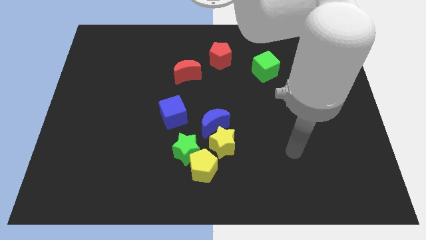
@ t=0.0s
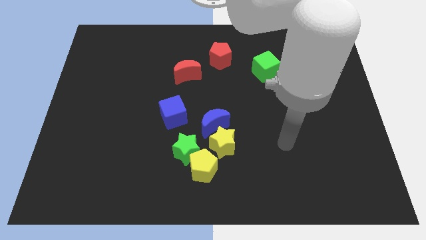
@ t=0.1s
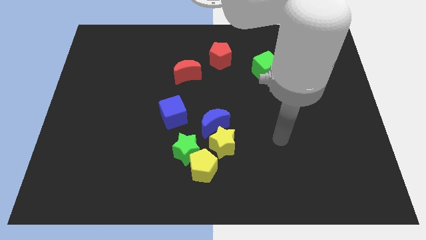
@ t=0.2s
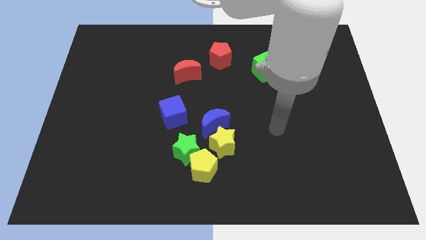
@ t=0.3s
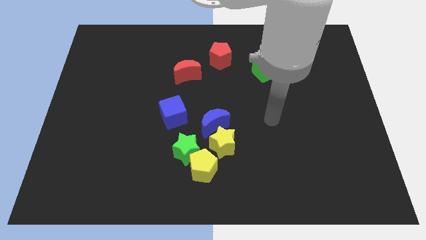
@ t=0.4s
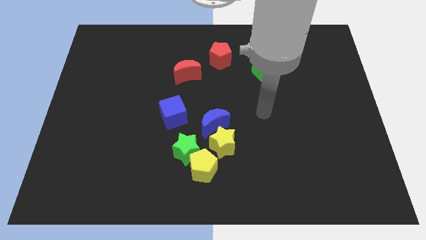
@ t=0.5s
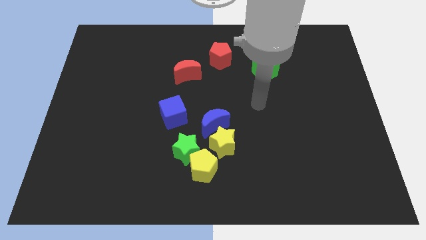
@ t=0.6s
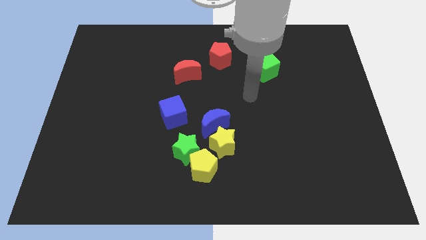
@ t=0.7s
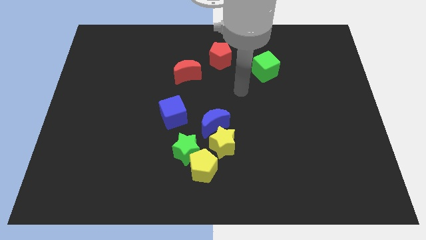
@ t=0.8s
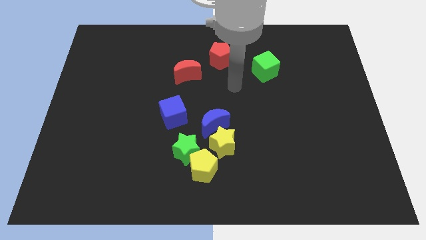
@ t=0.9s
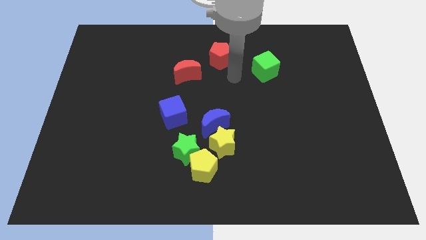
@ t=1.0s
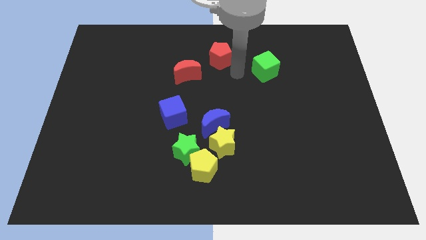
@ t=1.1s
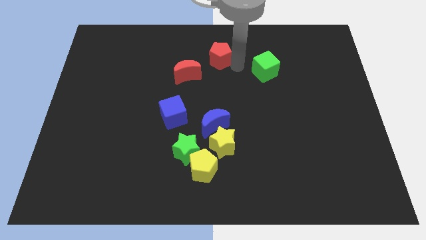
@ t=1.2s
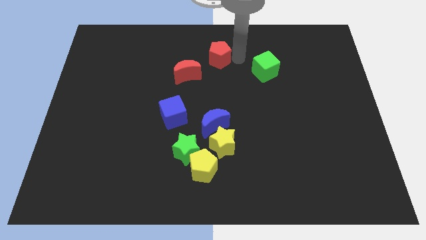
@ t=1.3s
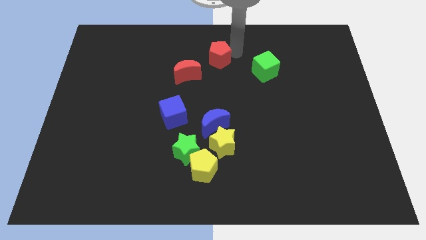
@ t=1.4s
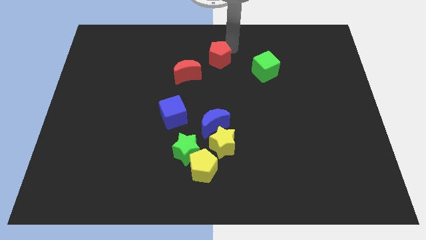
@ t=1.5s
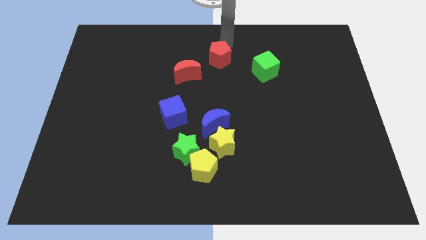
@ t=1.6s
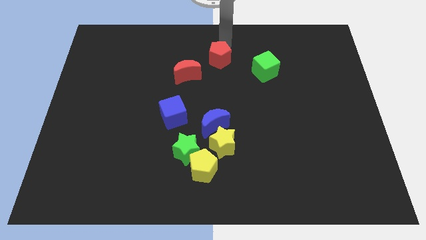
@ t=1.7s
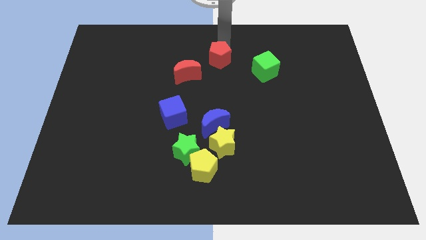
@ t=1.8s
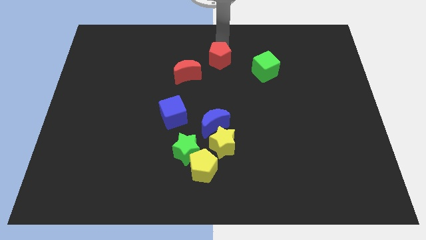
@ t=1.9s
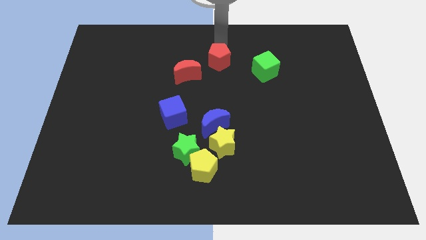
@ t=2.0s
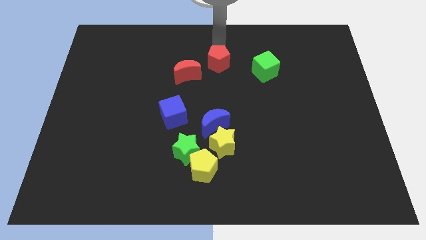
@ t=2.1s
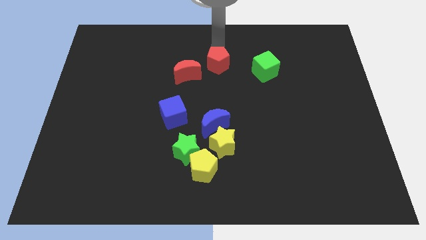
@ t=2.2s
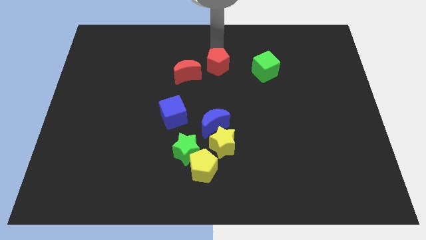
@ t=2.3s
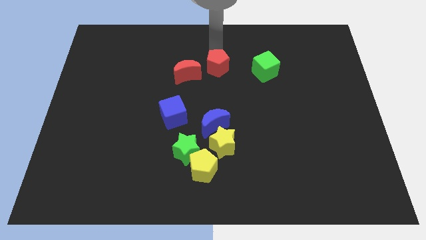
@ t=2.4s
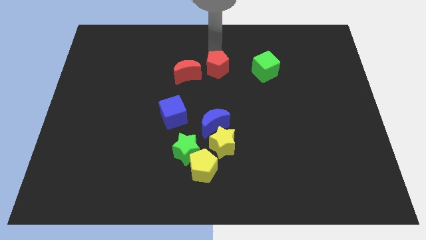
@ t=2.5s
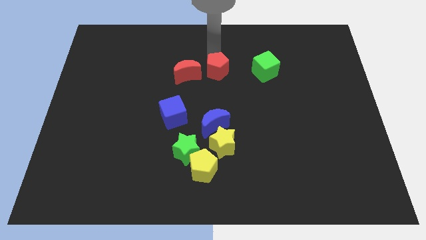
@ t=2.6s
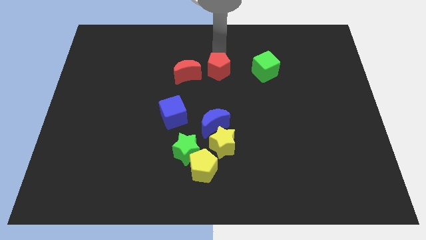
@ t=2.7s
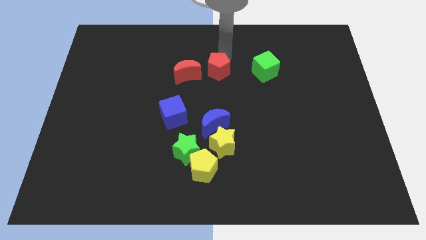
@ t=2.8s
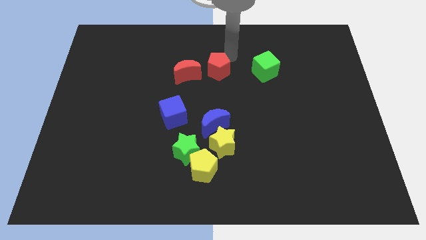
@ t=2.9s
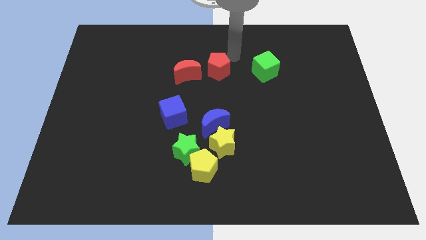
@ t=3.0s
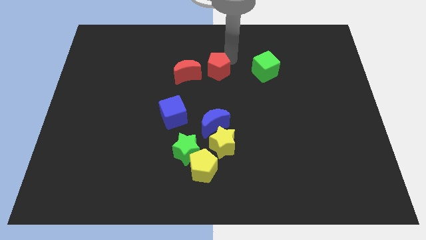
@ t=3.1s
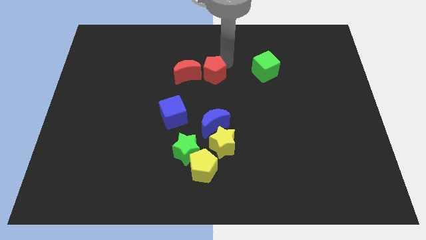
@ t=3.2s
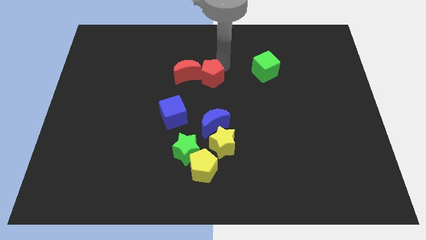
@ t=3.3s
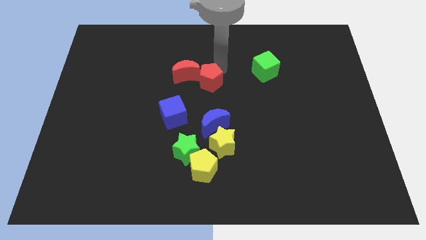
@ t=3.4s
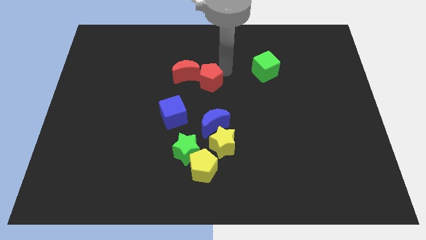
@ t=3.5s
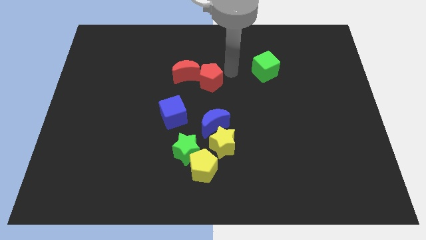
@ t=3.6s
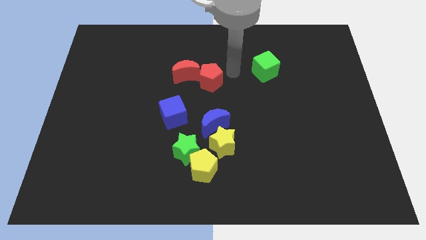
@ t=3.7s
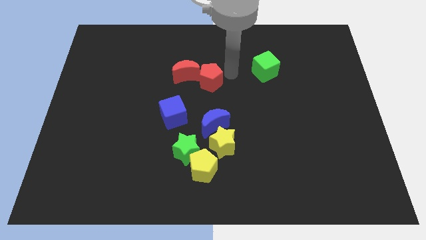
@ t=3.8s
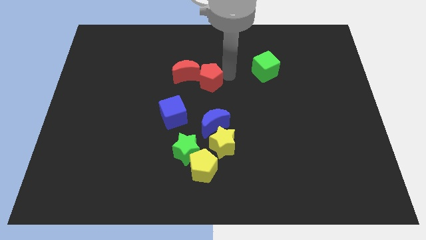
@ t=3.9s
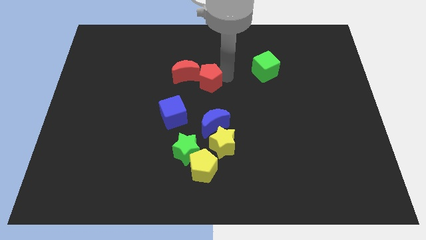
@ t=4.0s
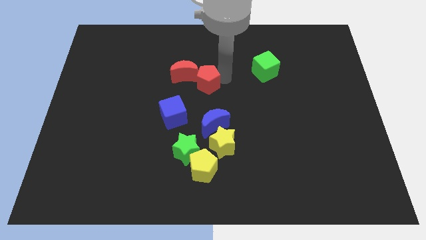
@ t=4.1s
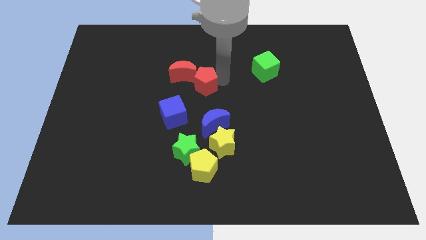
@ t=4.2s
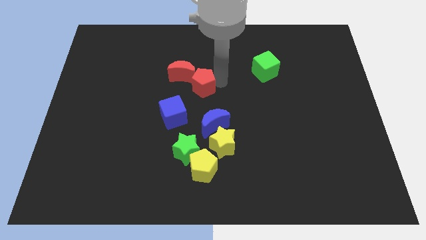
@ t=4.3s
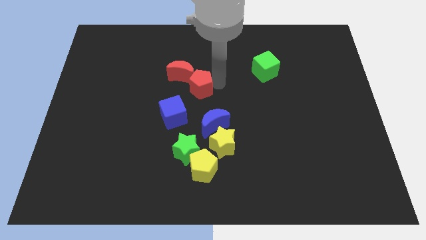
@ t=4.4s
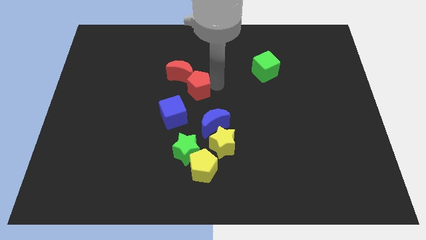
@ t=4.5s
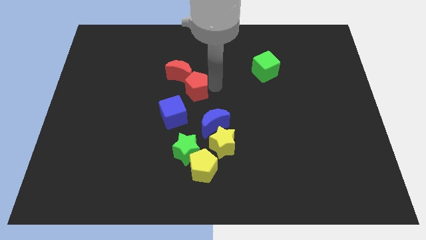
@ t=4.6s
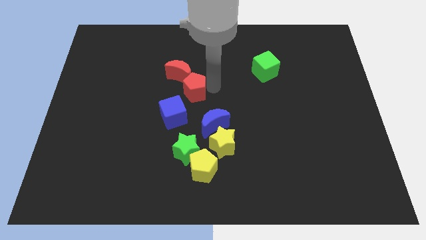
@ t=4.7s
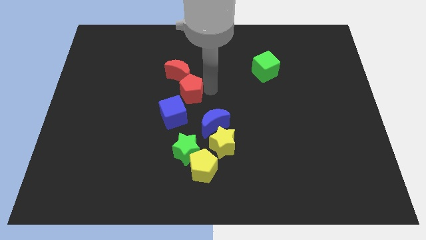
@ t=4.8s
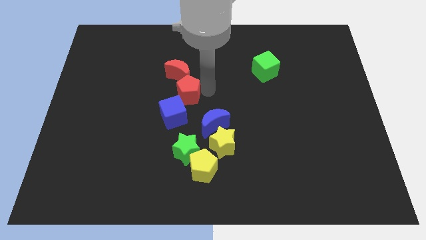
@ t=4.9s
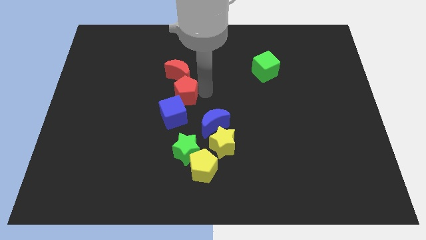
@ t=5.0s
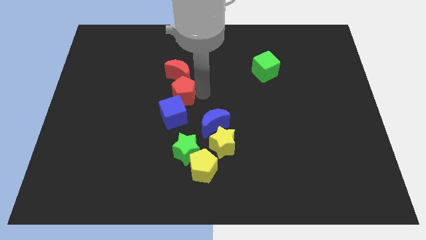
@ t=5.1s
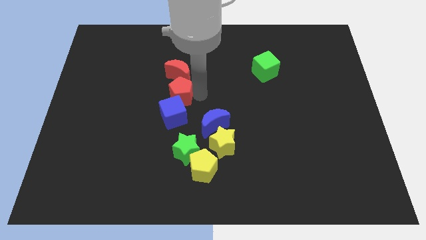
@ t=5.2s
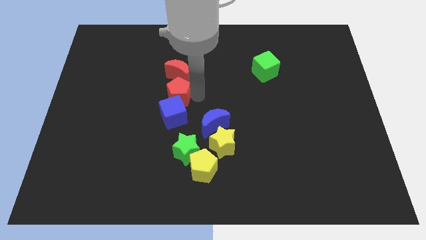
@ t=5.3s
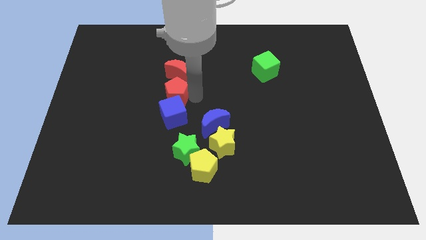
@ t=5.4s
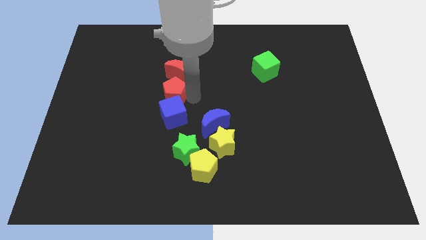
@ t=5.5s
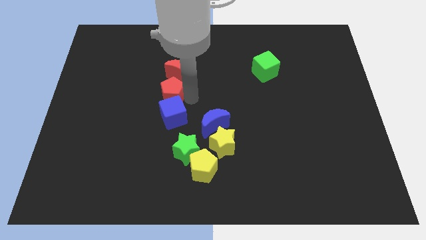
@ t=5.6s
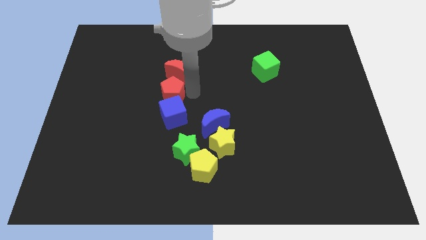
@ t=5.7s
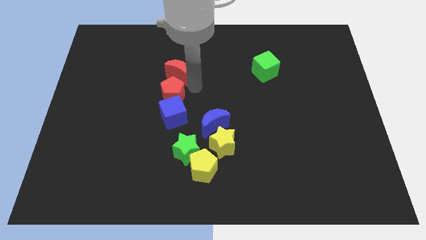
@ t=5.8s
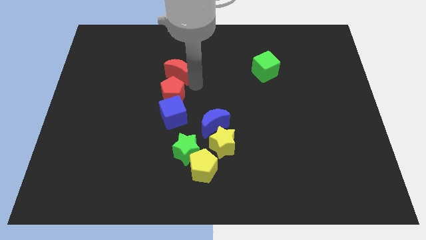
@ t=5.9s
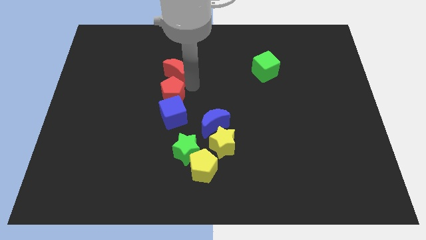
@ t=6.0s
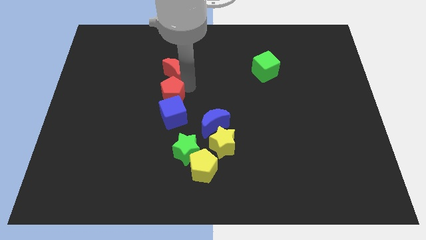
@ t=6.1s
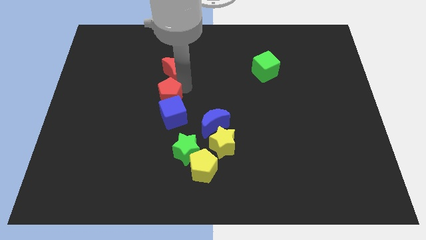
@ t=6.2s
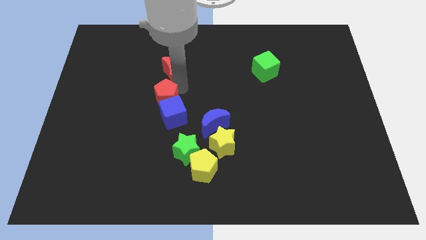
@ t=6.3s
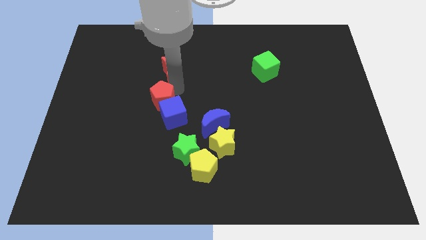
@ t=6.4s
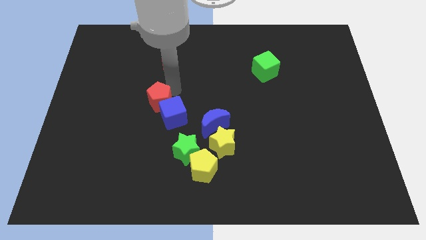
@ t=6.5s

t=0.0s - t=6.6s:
push the red pentagon down and to the left diagonally

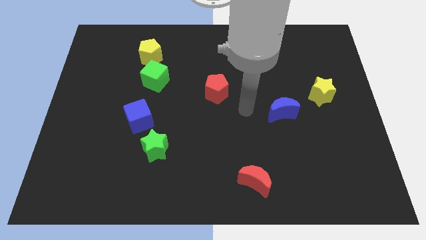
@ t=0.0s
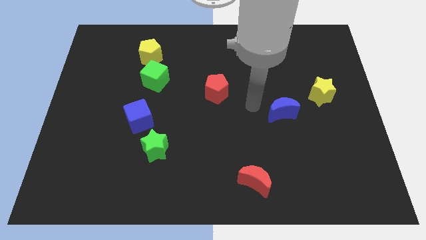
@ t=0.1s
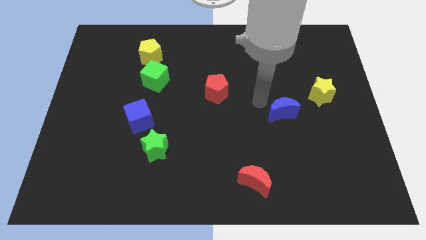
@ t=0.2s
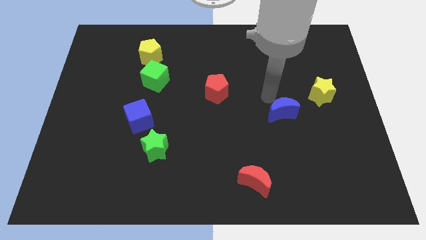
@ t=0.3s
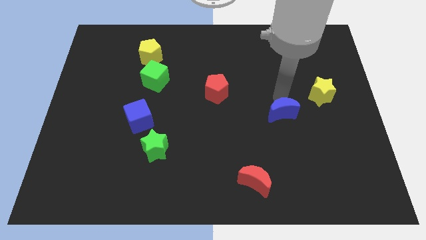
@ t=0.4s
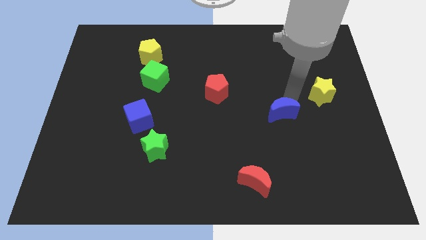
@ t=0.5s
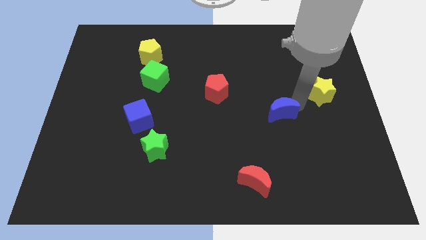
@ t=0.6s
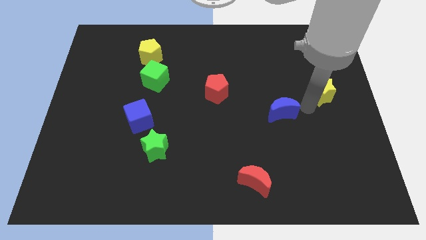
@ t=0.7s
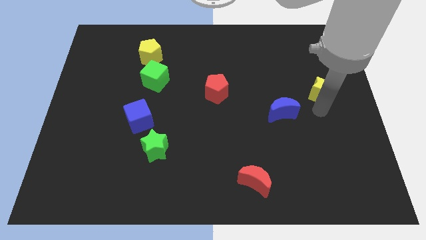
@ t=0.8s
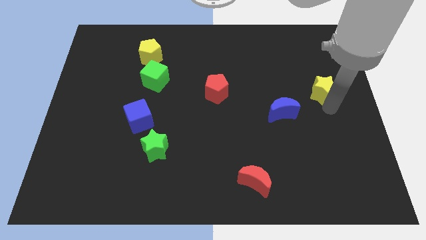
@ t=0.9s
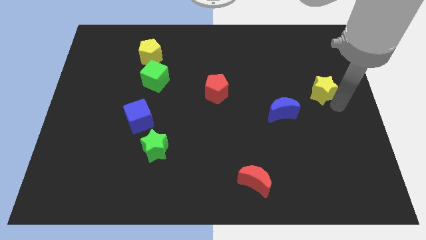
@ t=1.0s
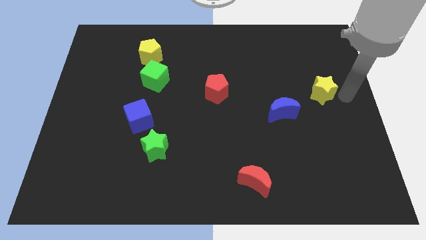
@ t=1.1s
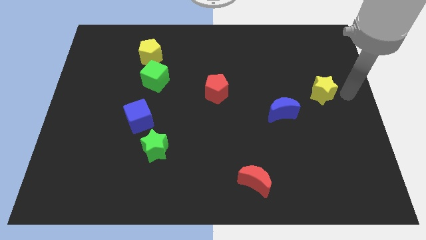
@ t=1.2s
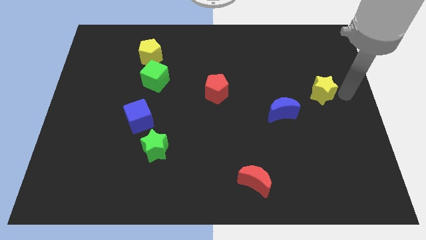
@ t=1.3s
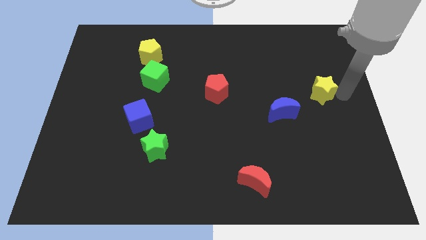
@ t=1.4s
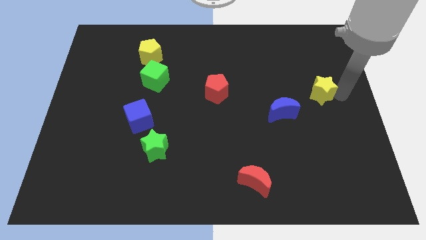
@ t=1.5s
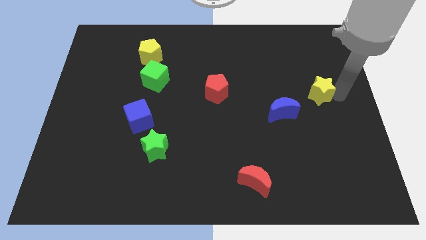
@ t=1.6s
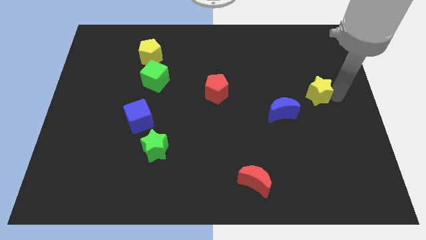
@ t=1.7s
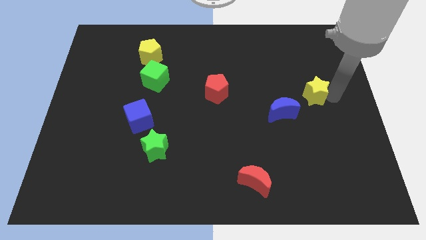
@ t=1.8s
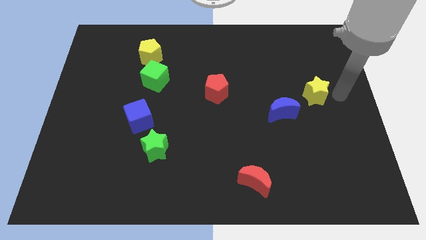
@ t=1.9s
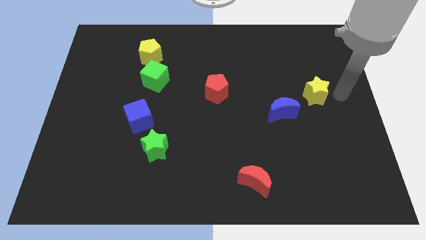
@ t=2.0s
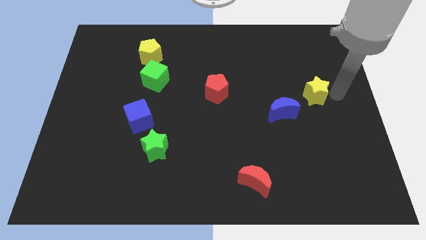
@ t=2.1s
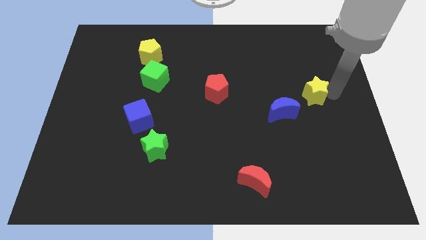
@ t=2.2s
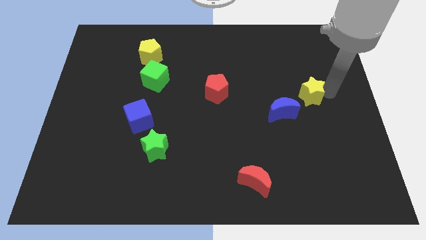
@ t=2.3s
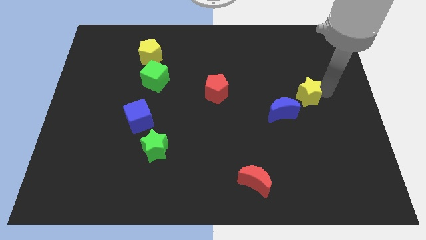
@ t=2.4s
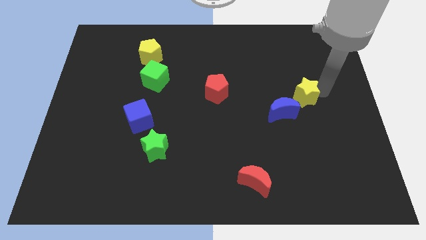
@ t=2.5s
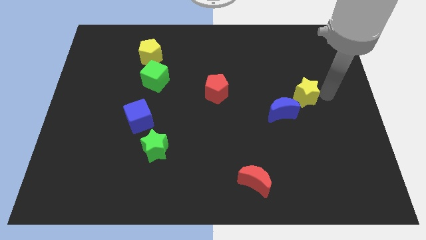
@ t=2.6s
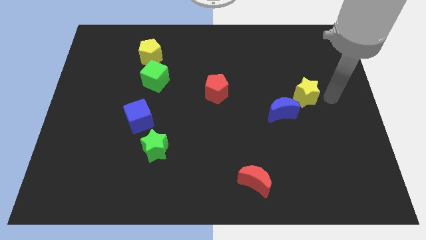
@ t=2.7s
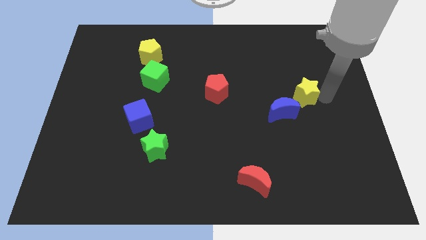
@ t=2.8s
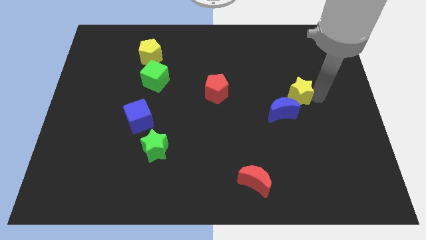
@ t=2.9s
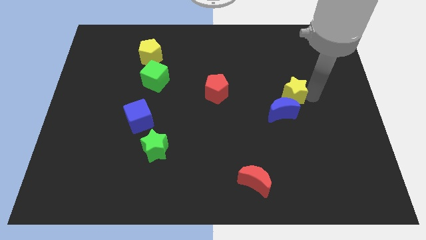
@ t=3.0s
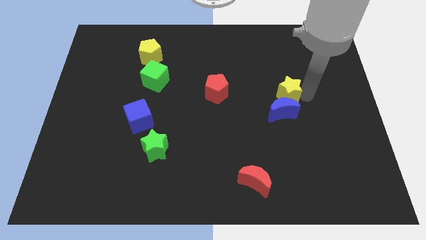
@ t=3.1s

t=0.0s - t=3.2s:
slightly move the yellow star to the left
